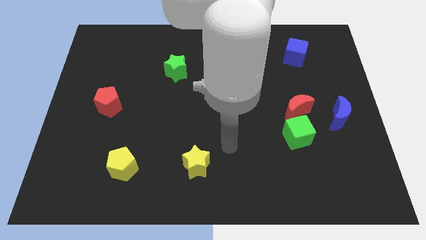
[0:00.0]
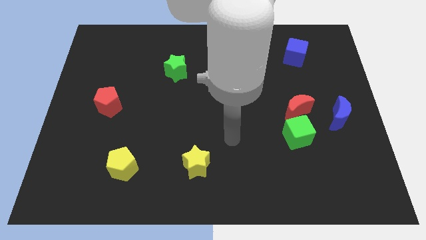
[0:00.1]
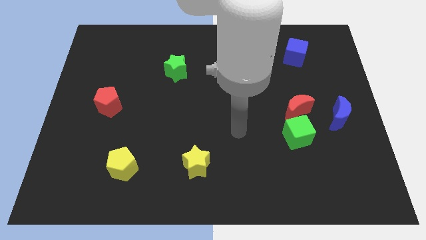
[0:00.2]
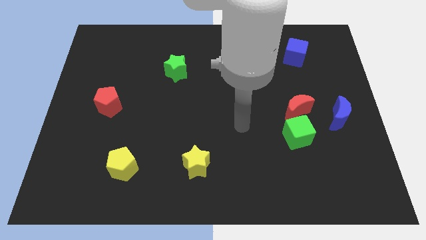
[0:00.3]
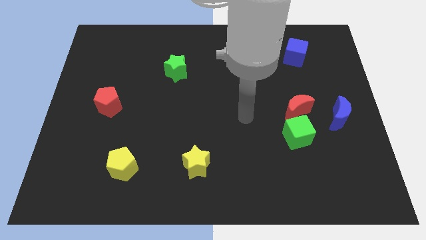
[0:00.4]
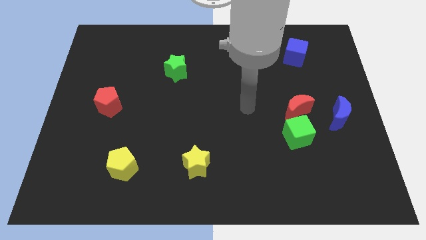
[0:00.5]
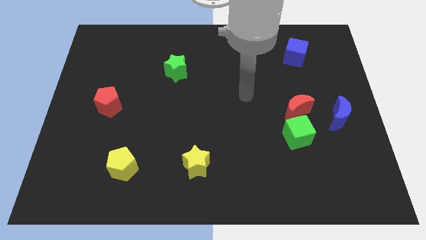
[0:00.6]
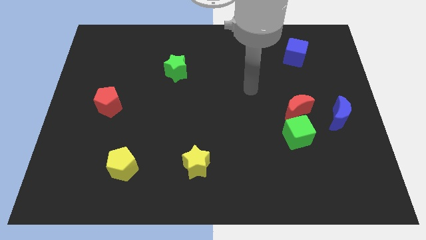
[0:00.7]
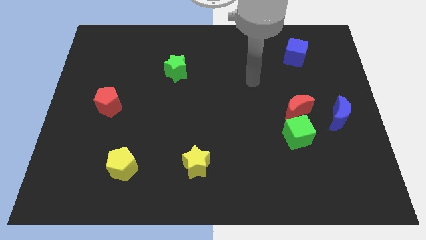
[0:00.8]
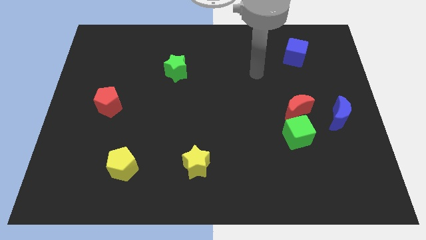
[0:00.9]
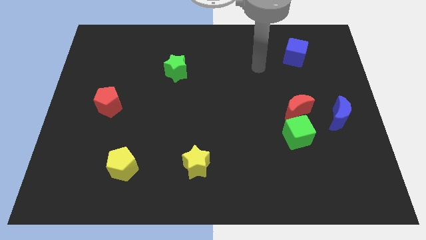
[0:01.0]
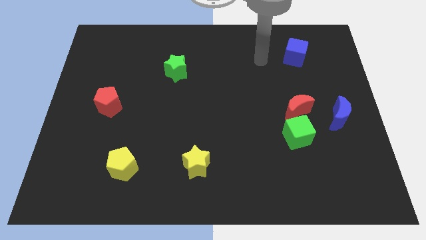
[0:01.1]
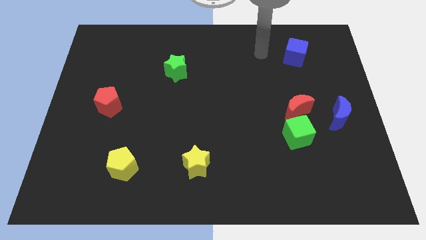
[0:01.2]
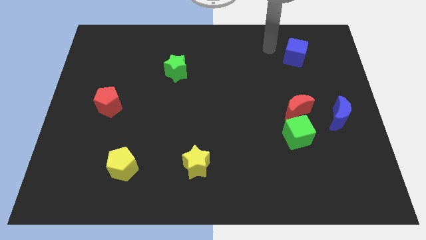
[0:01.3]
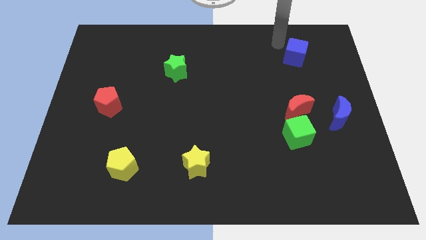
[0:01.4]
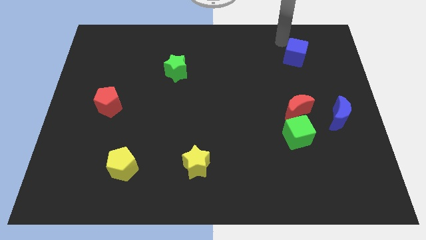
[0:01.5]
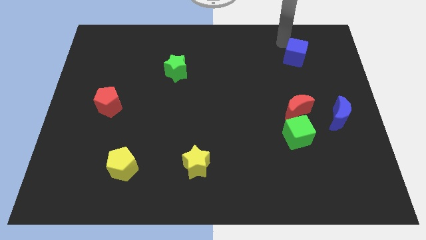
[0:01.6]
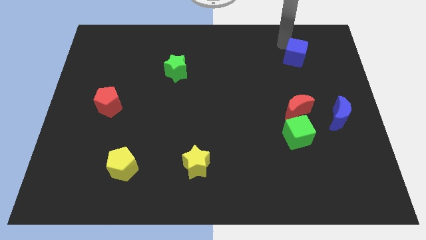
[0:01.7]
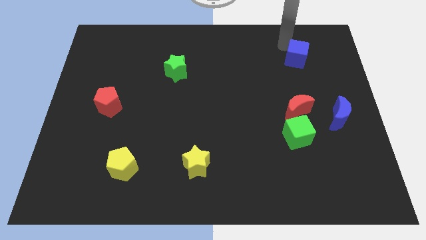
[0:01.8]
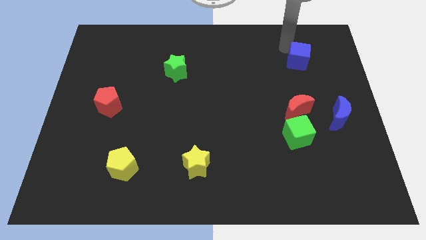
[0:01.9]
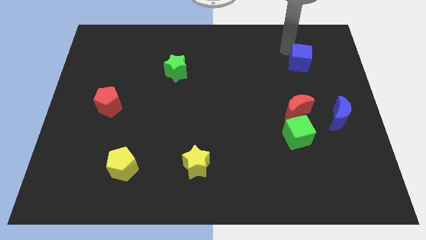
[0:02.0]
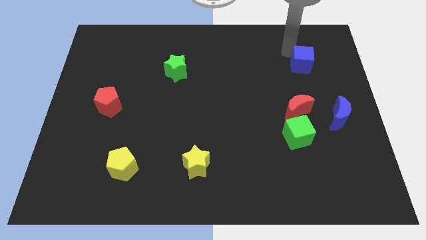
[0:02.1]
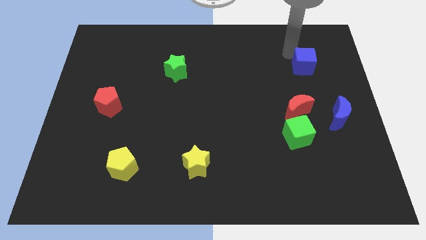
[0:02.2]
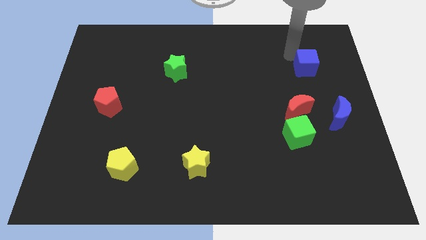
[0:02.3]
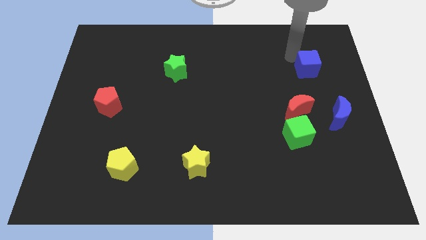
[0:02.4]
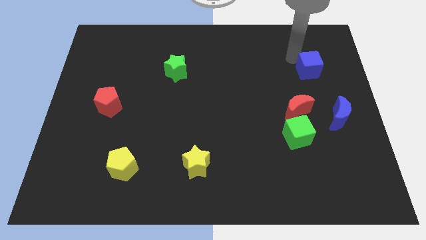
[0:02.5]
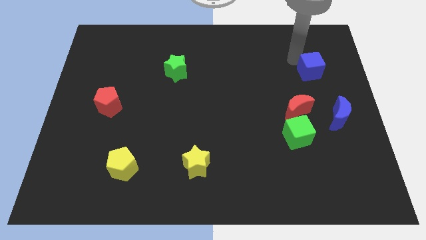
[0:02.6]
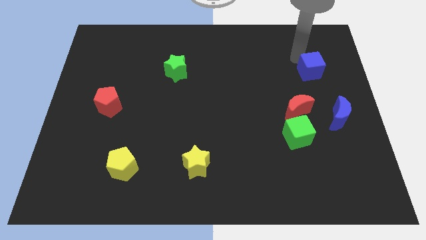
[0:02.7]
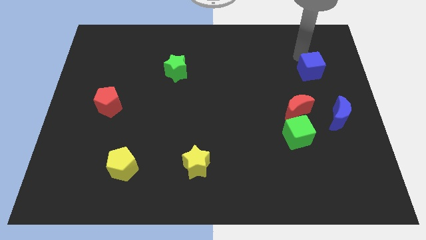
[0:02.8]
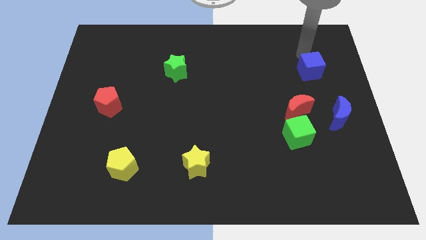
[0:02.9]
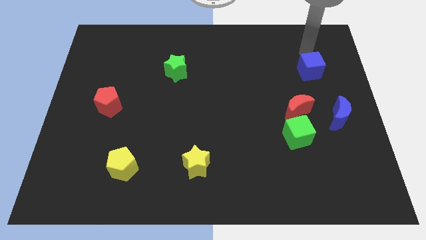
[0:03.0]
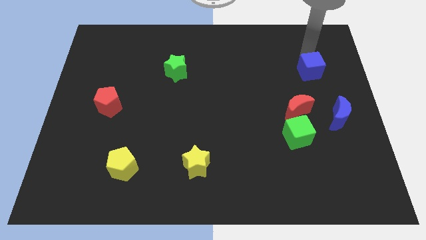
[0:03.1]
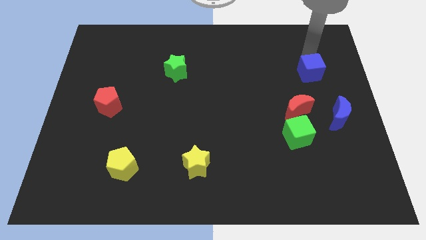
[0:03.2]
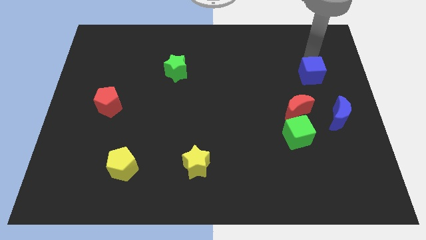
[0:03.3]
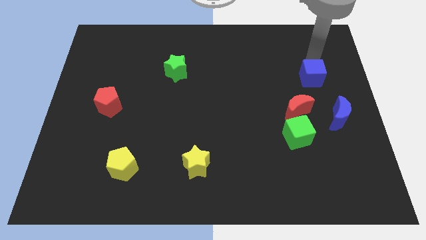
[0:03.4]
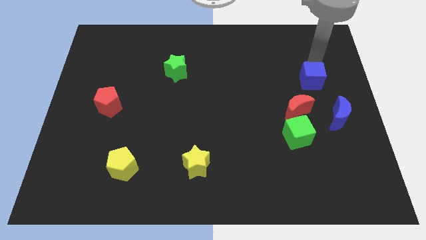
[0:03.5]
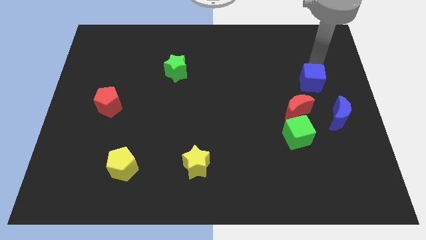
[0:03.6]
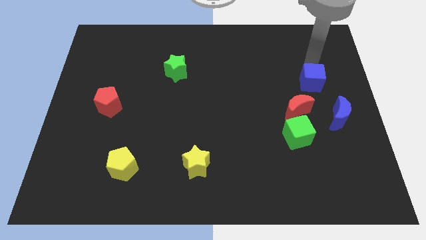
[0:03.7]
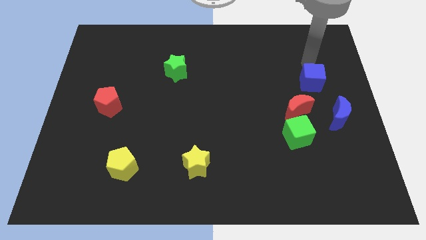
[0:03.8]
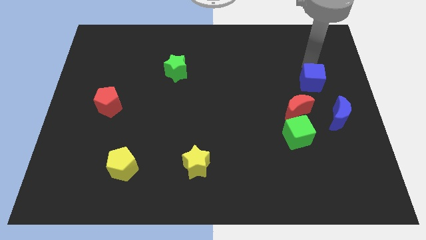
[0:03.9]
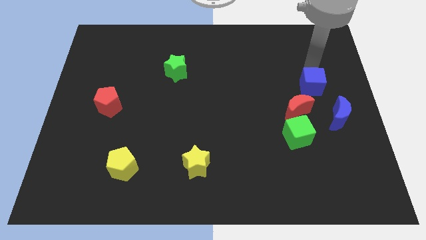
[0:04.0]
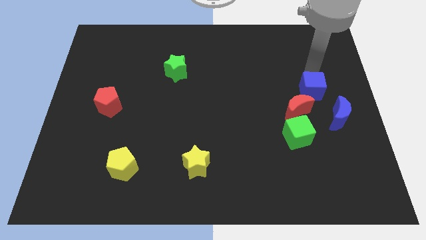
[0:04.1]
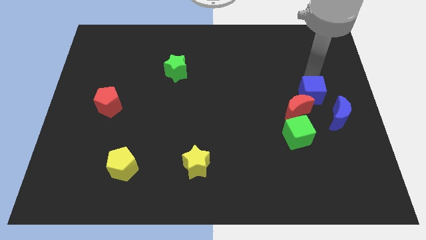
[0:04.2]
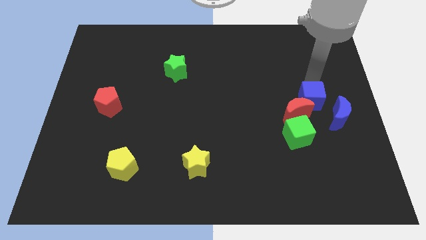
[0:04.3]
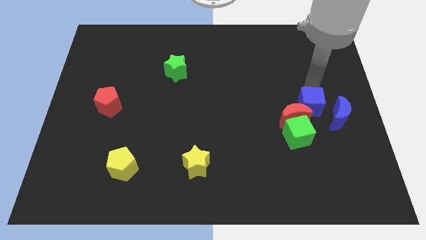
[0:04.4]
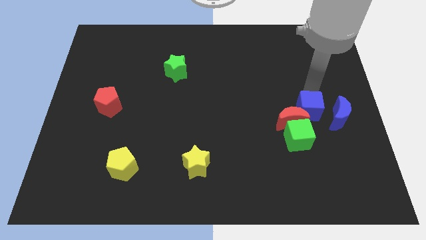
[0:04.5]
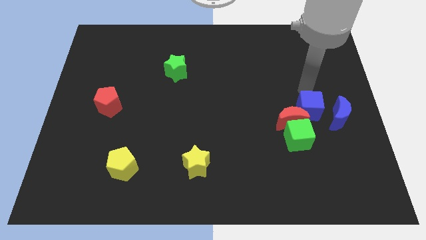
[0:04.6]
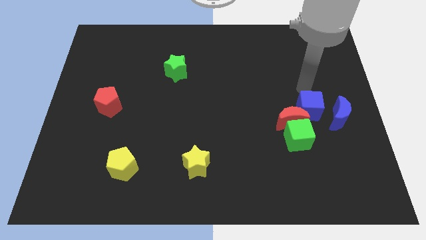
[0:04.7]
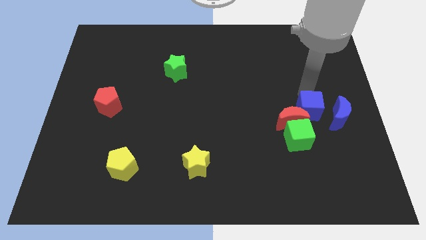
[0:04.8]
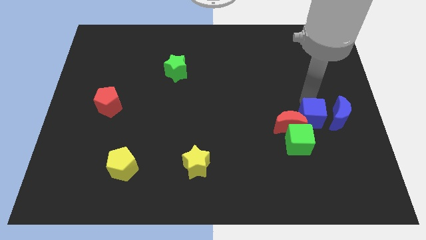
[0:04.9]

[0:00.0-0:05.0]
move the blue cube down

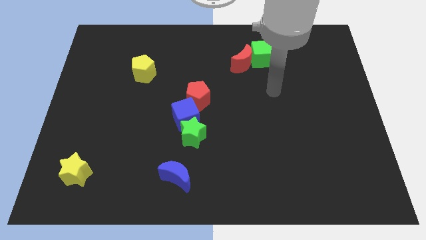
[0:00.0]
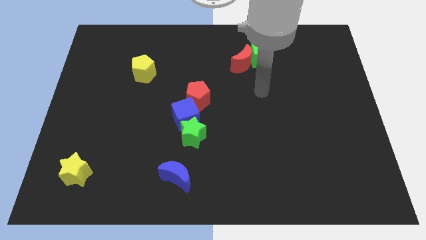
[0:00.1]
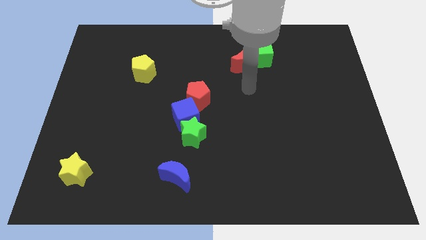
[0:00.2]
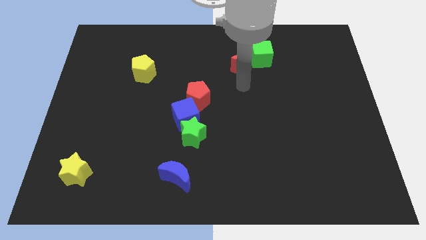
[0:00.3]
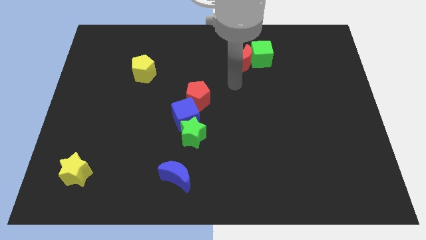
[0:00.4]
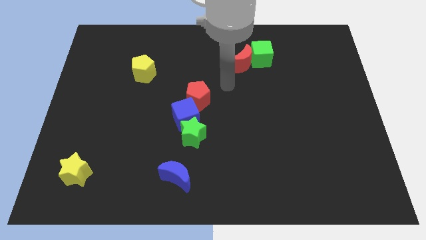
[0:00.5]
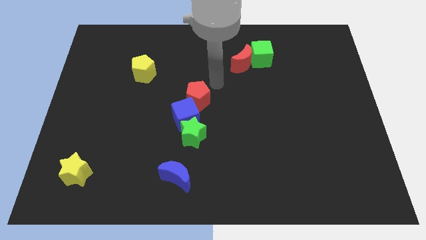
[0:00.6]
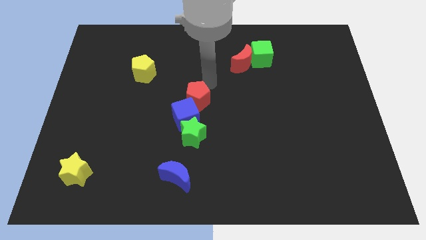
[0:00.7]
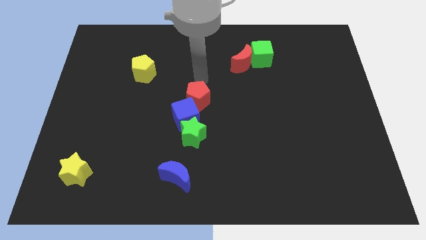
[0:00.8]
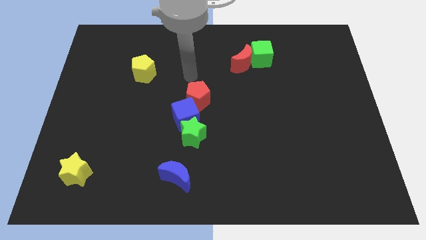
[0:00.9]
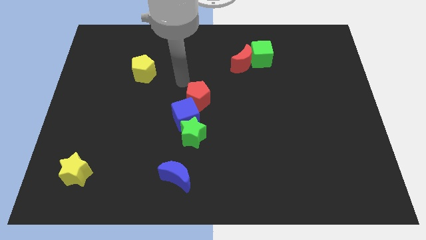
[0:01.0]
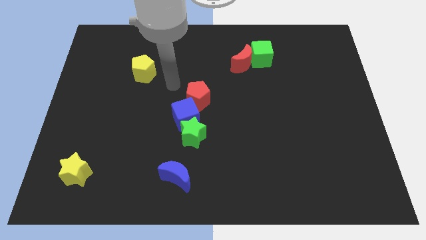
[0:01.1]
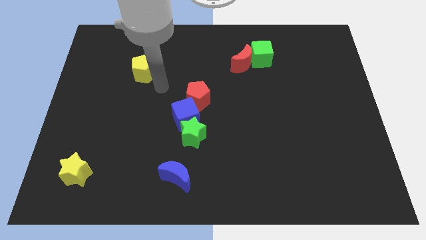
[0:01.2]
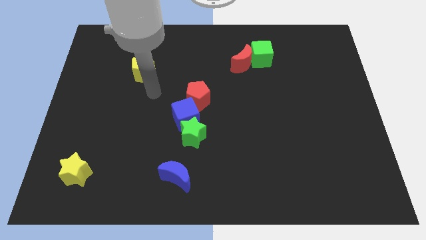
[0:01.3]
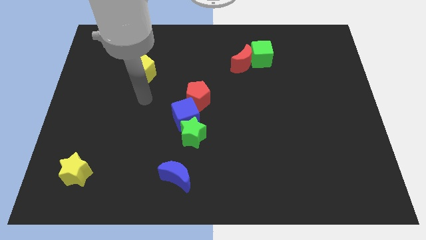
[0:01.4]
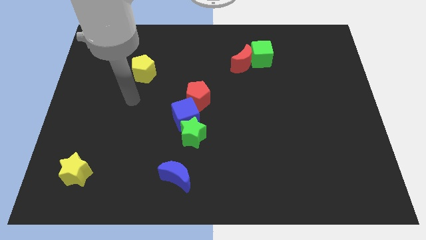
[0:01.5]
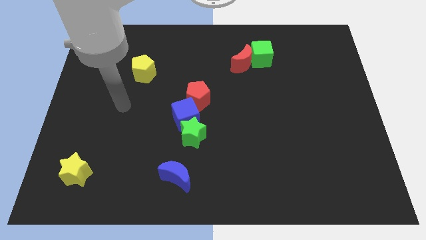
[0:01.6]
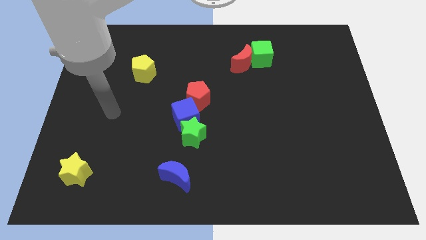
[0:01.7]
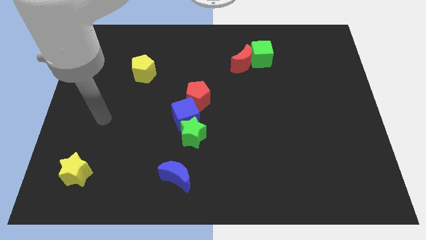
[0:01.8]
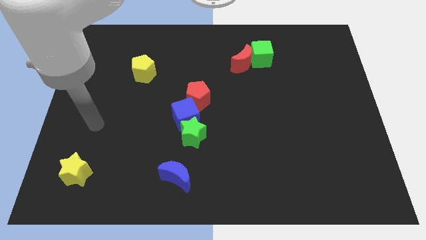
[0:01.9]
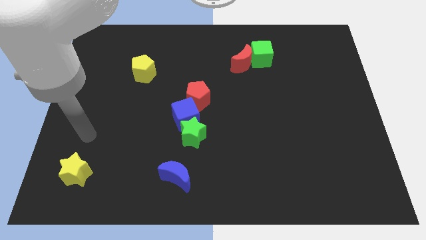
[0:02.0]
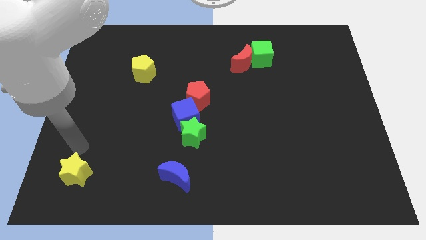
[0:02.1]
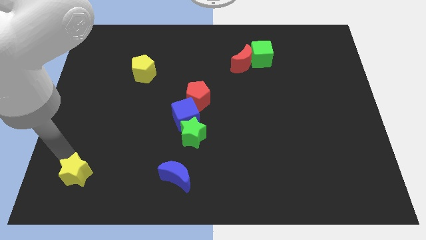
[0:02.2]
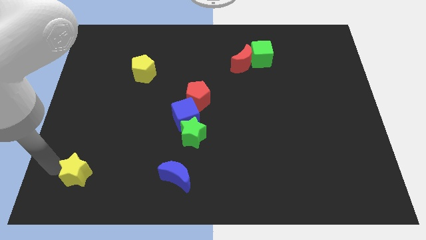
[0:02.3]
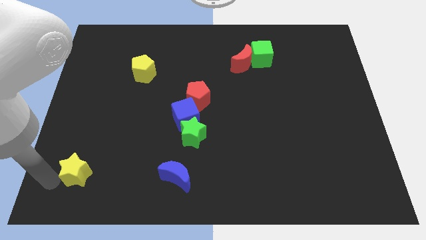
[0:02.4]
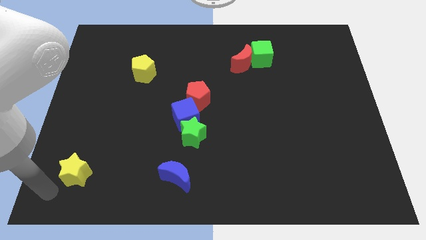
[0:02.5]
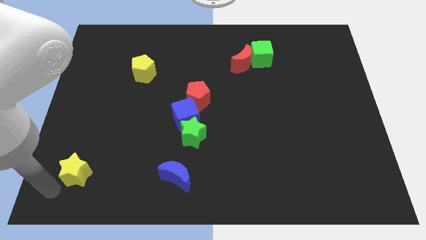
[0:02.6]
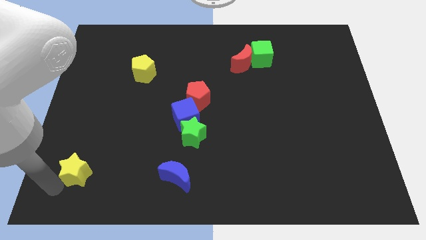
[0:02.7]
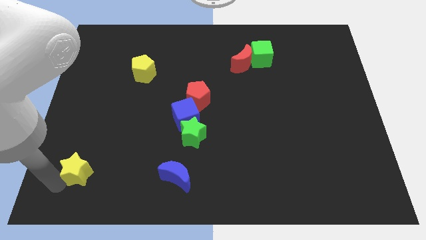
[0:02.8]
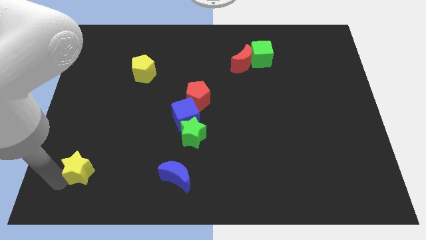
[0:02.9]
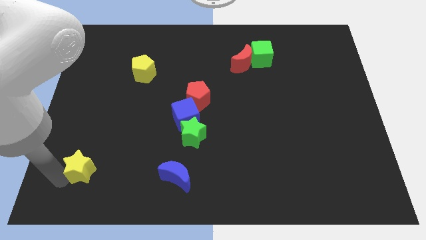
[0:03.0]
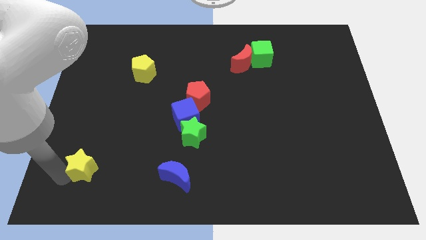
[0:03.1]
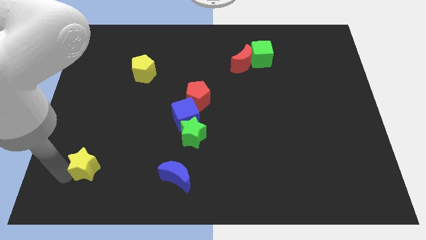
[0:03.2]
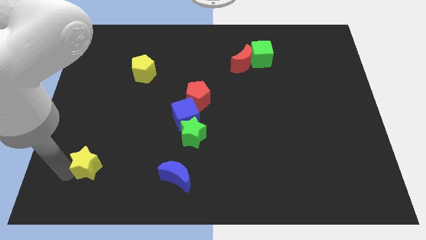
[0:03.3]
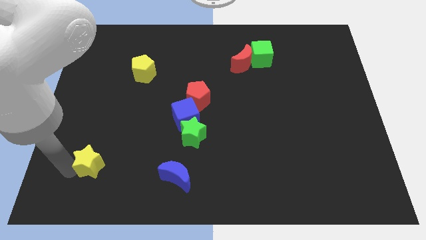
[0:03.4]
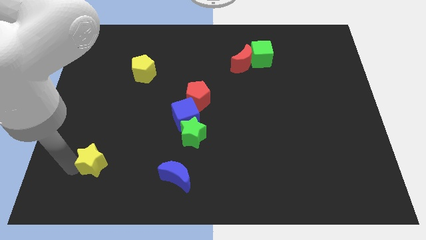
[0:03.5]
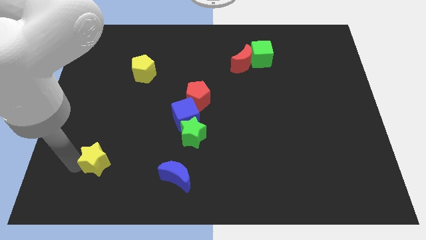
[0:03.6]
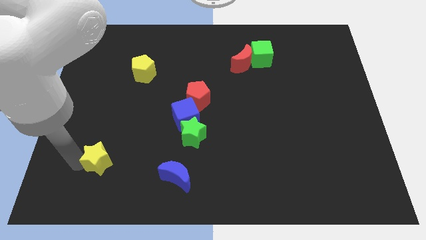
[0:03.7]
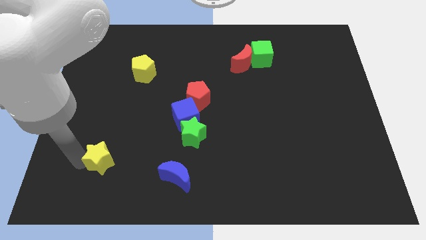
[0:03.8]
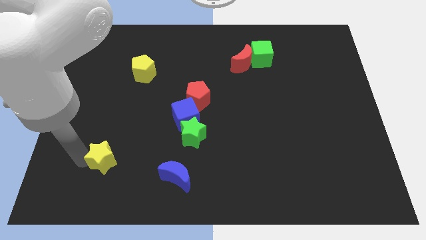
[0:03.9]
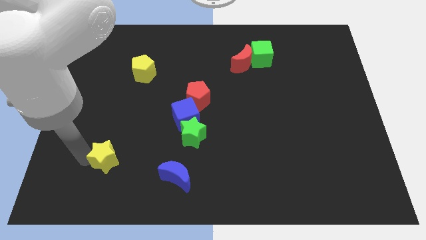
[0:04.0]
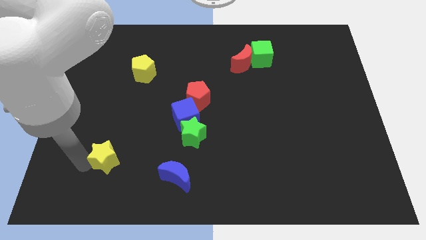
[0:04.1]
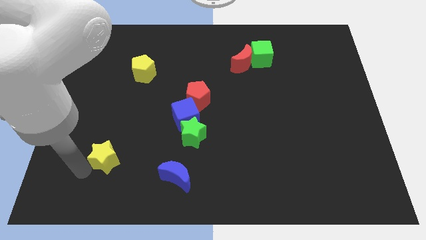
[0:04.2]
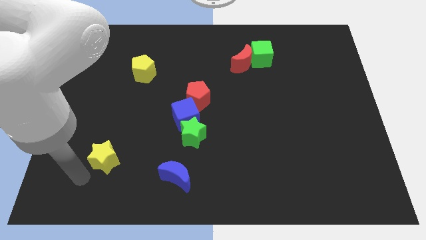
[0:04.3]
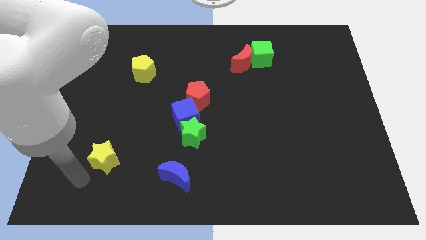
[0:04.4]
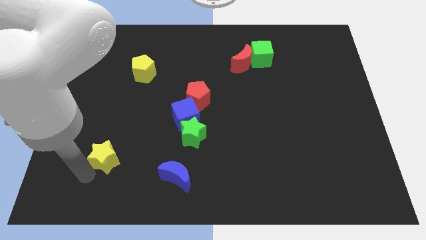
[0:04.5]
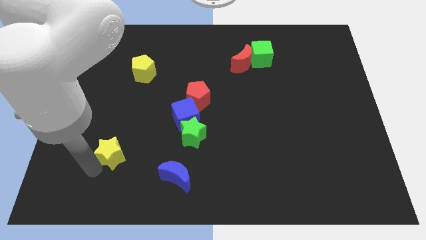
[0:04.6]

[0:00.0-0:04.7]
slightly push the yellow star up and right
